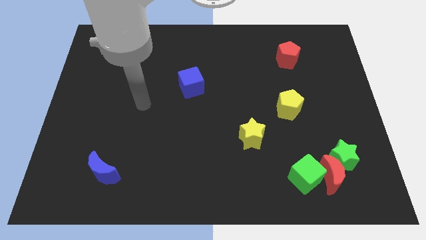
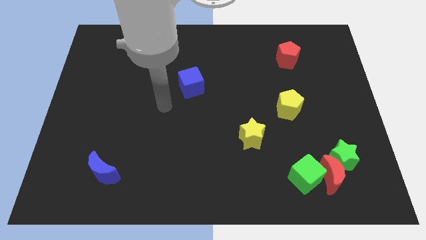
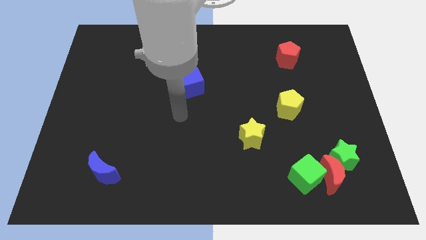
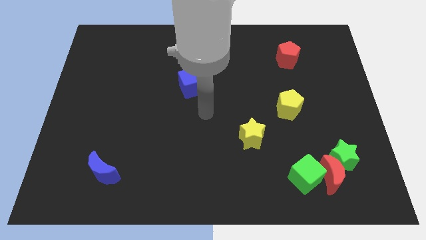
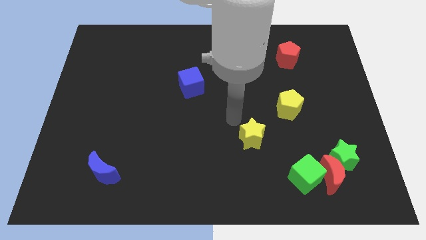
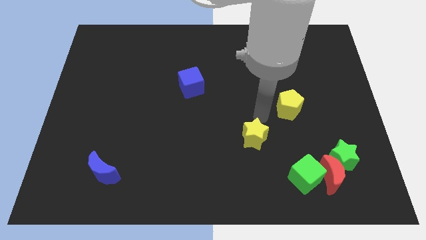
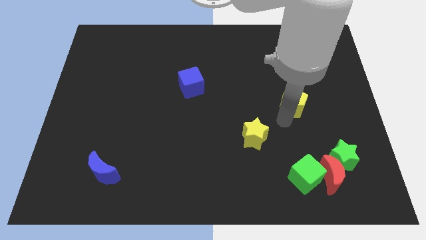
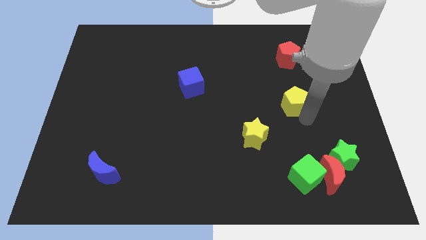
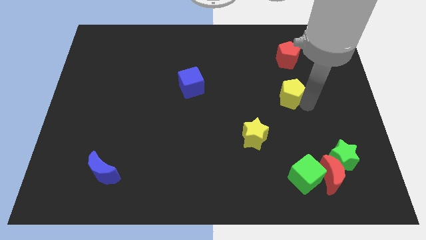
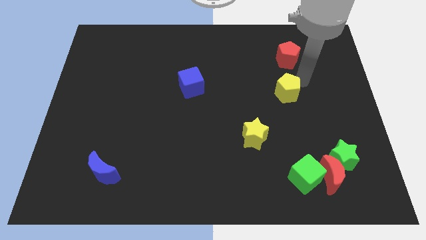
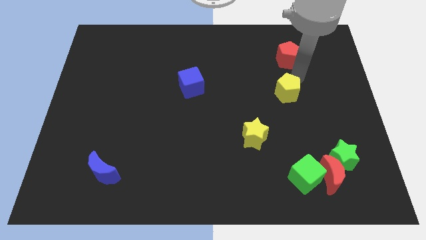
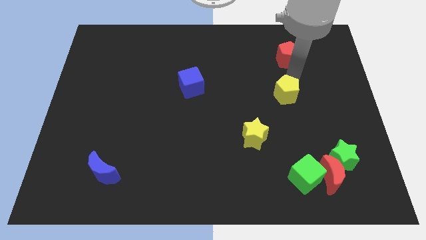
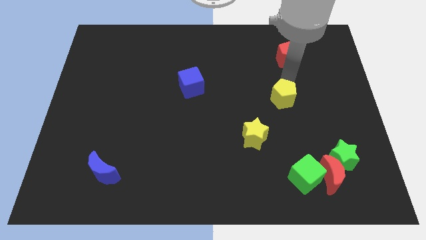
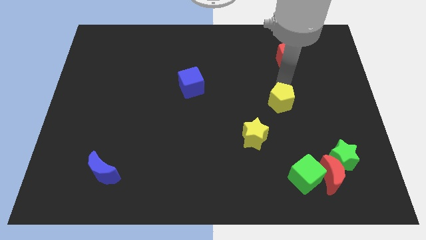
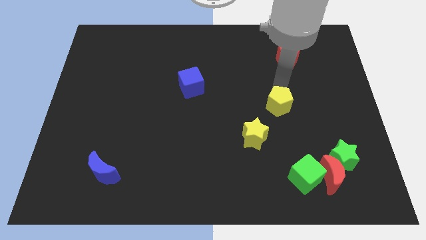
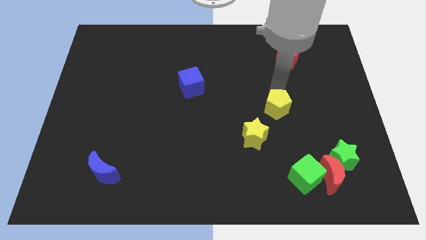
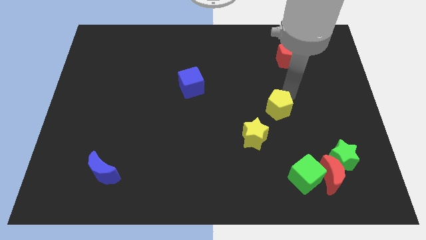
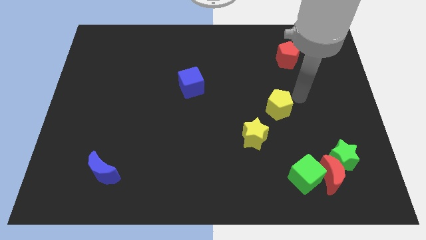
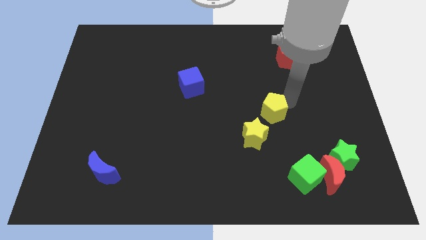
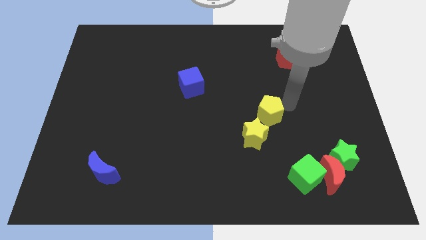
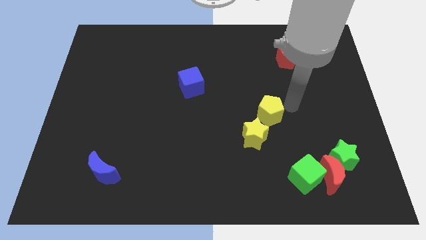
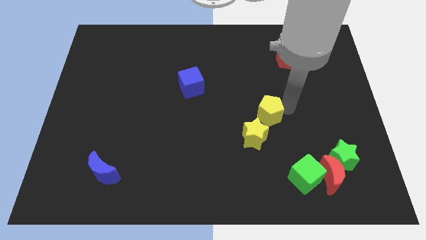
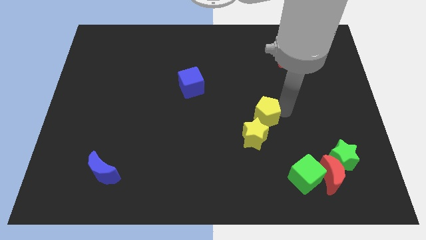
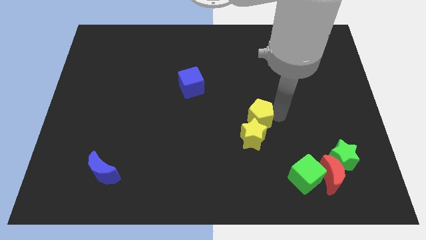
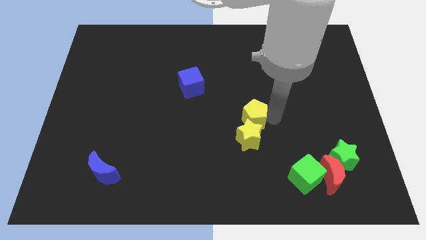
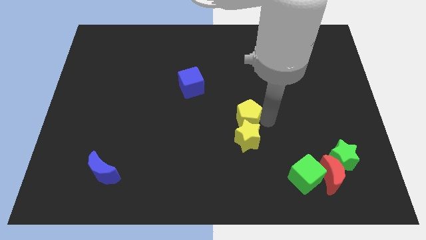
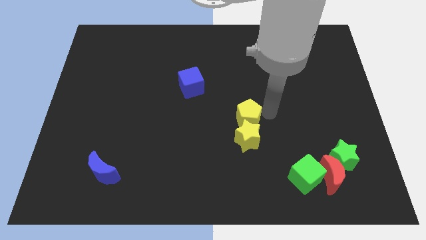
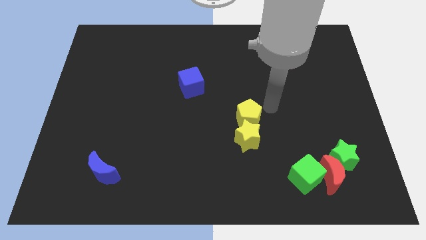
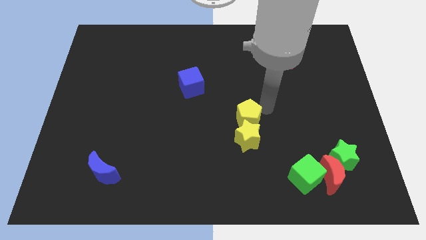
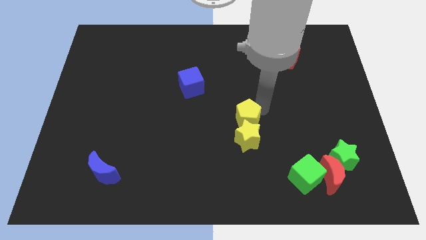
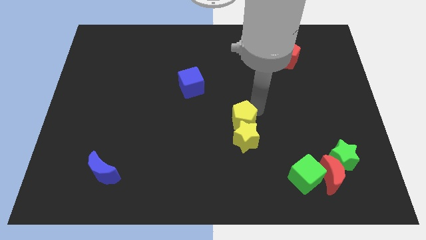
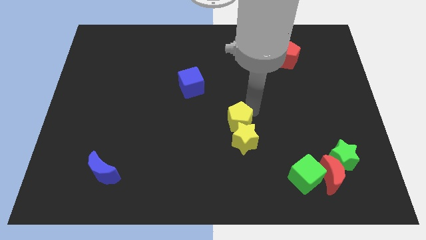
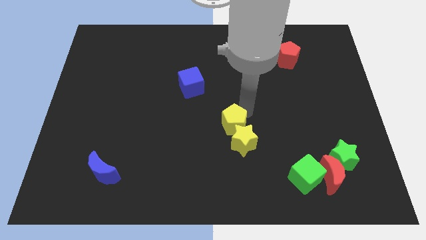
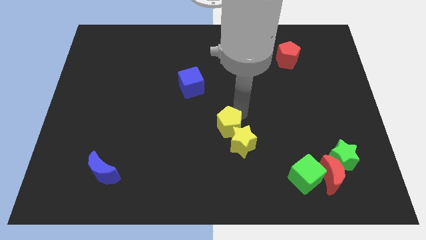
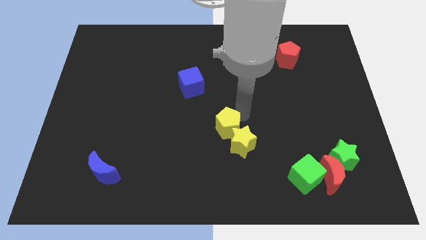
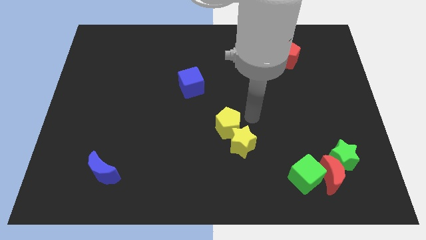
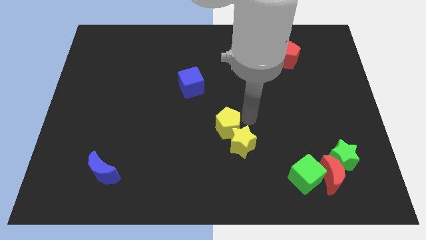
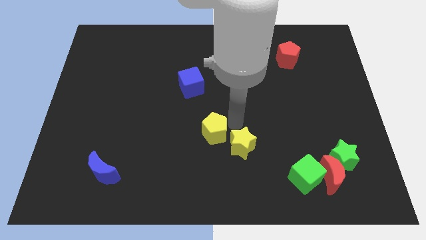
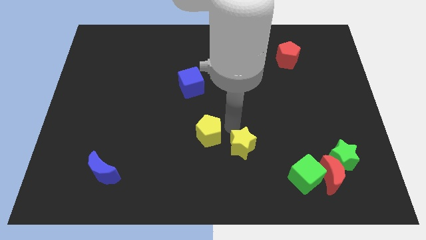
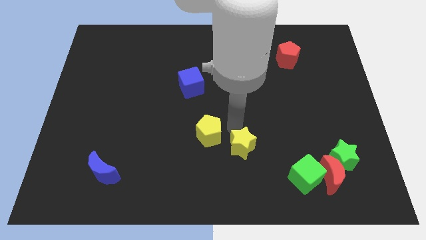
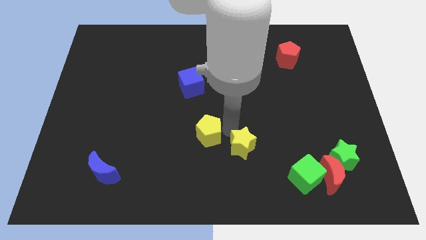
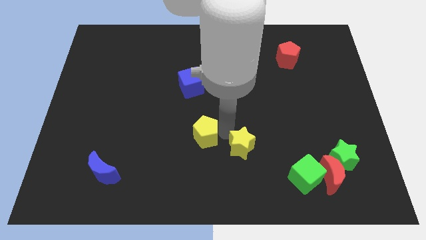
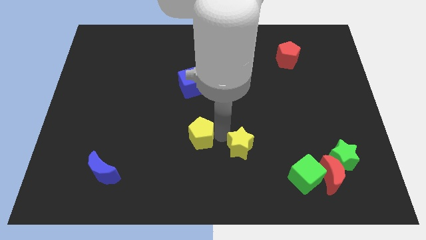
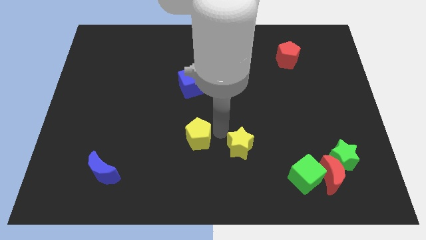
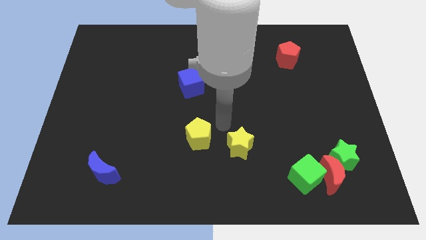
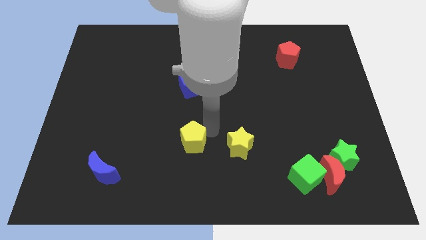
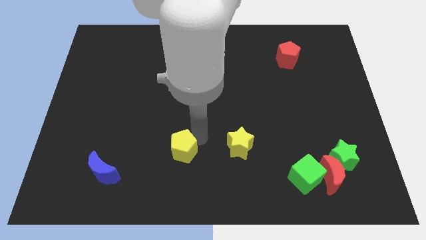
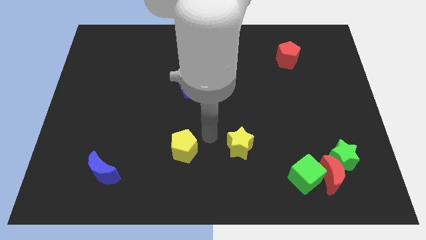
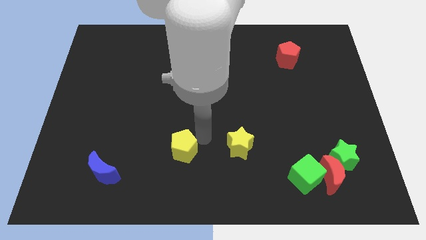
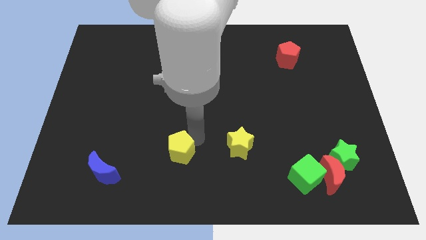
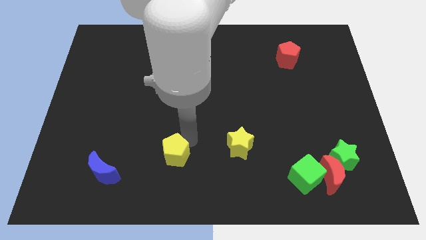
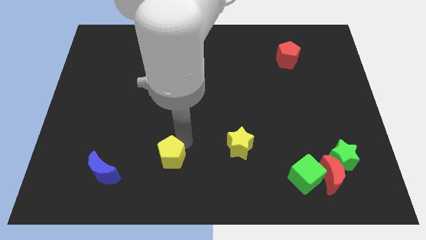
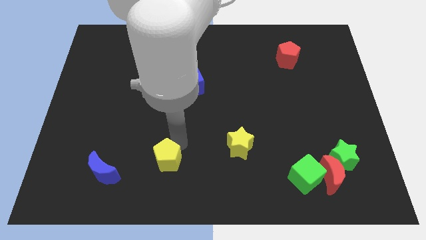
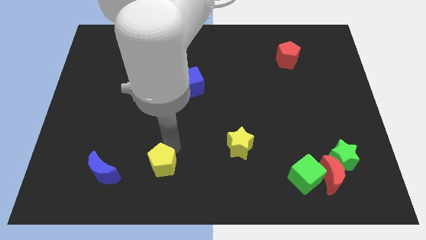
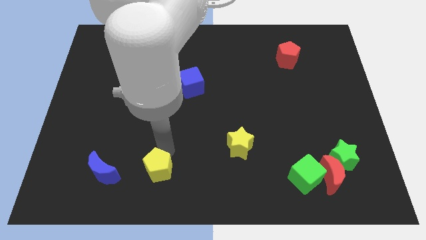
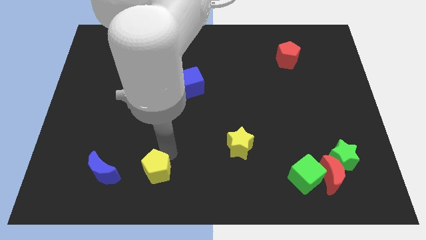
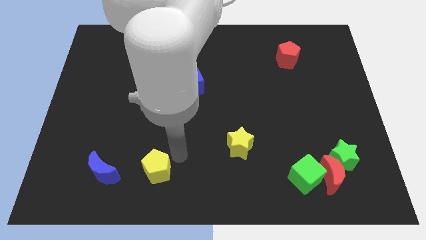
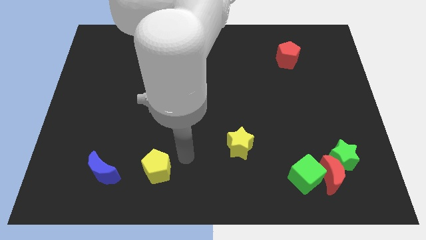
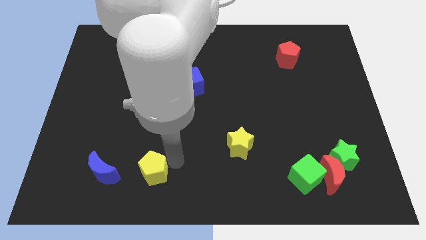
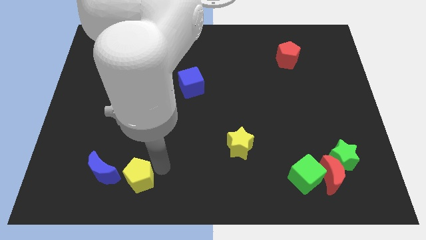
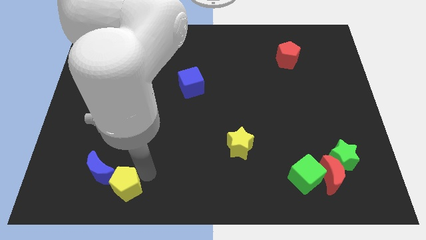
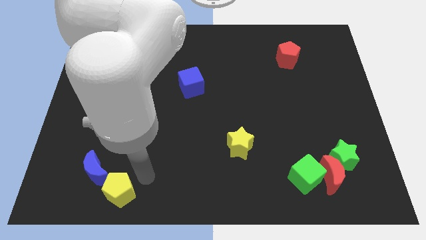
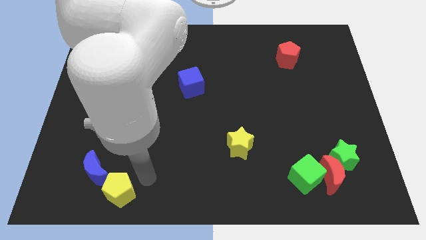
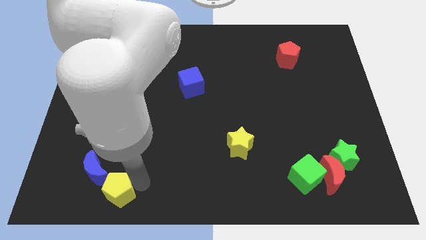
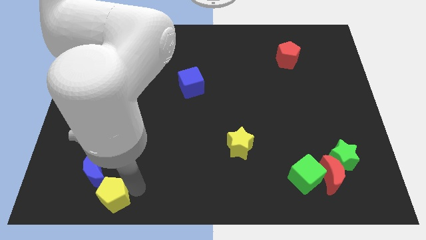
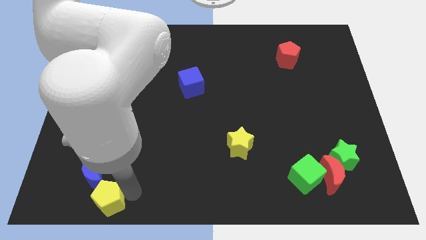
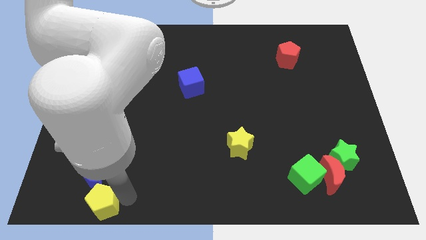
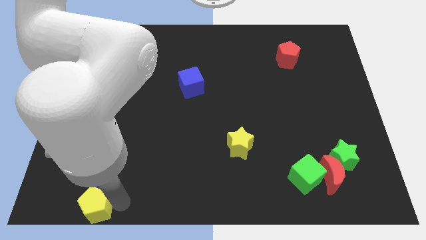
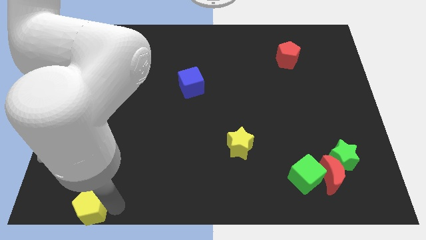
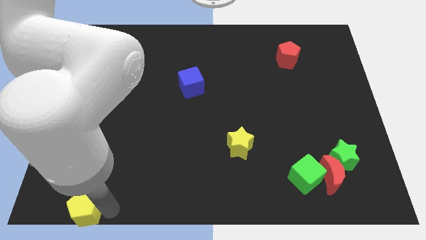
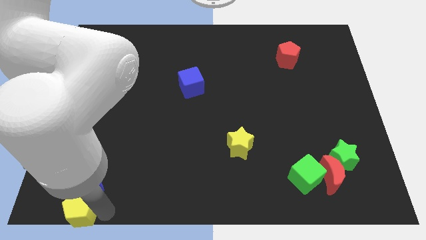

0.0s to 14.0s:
put the yellow pentagon to the lower left corner
